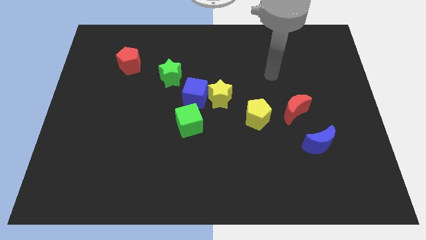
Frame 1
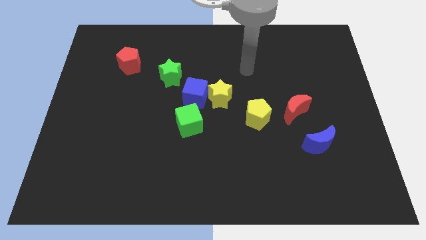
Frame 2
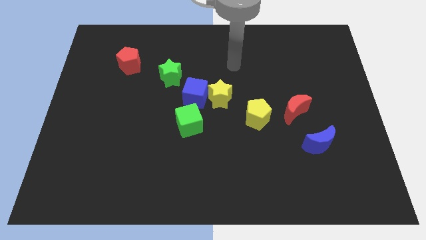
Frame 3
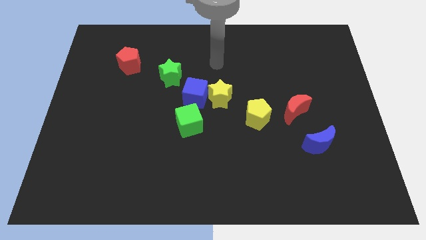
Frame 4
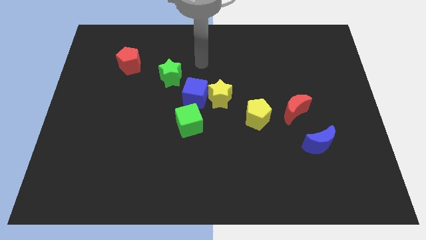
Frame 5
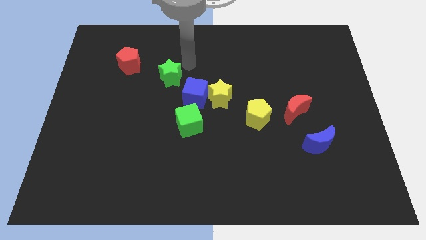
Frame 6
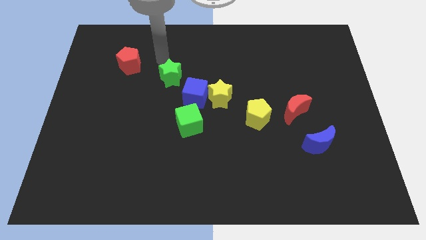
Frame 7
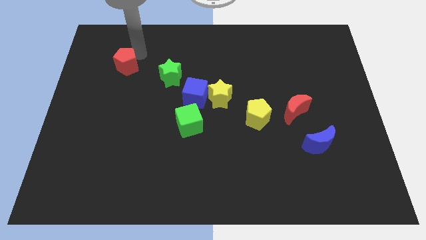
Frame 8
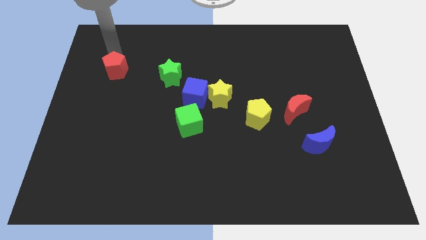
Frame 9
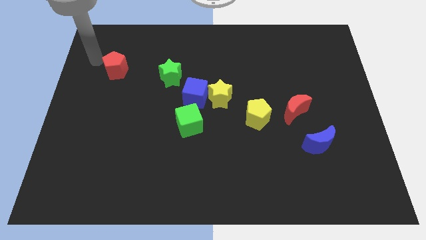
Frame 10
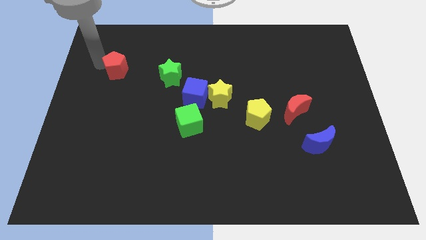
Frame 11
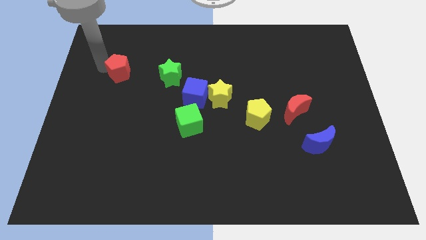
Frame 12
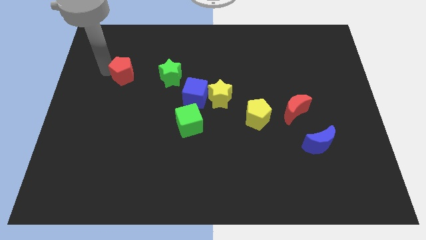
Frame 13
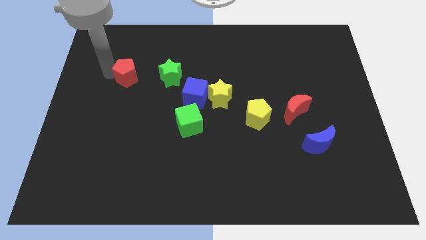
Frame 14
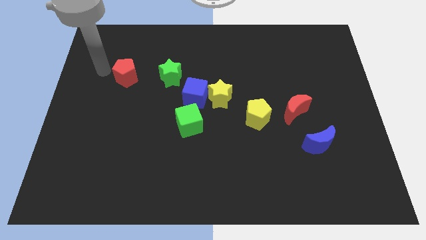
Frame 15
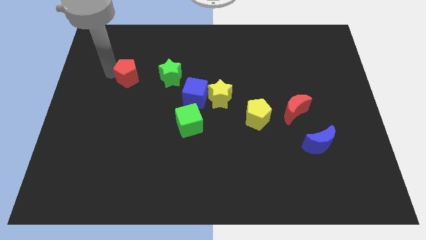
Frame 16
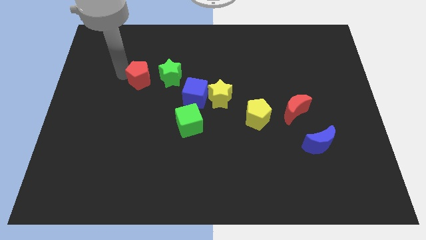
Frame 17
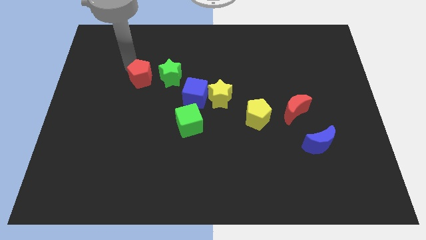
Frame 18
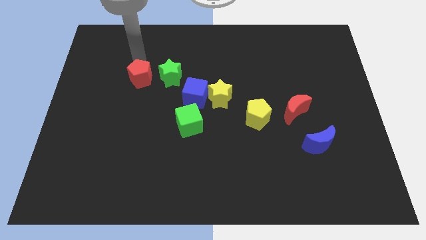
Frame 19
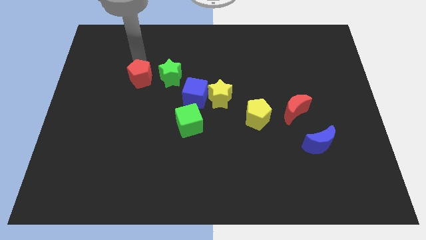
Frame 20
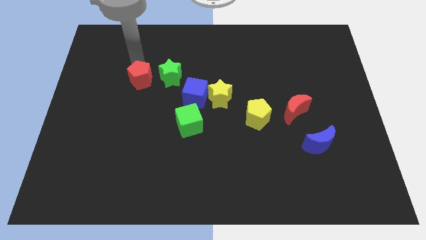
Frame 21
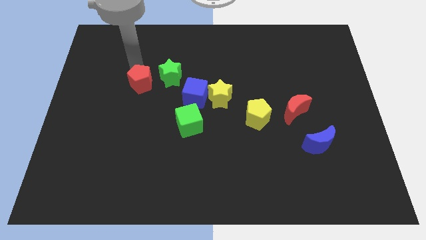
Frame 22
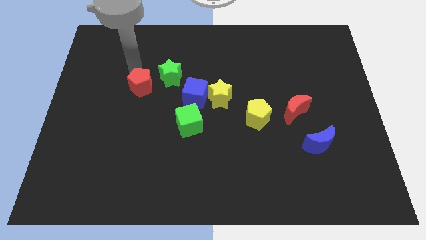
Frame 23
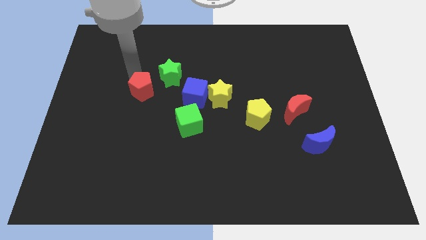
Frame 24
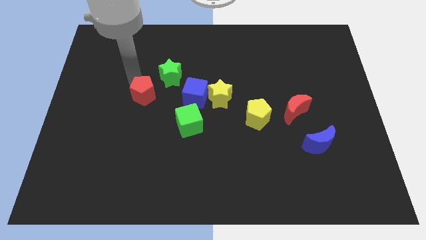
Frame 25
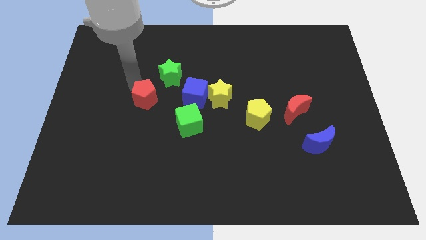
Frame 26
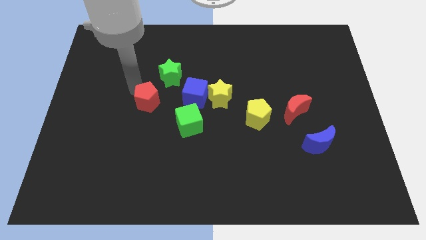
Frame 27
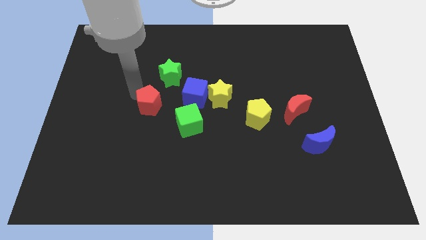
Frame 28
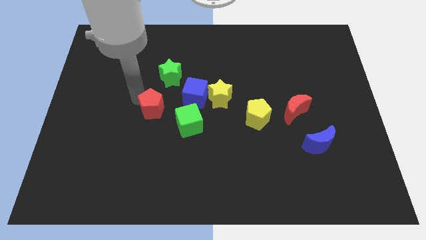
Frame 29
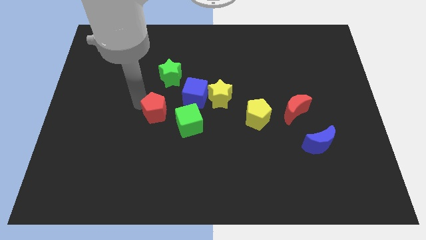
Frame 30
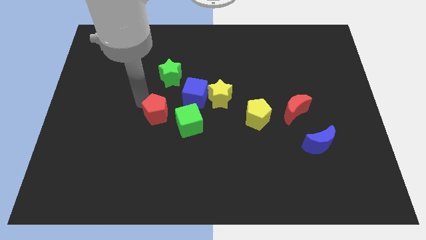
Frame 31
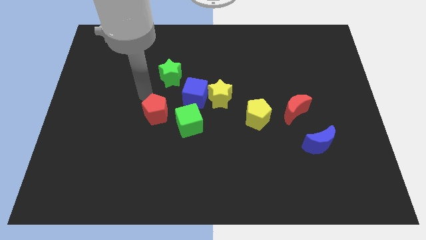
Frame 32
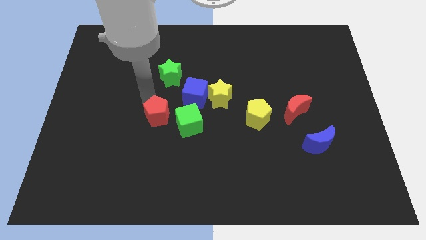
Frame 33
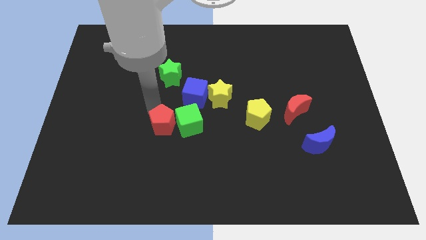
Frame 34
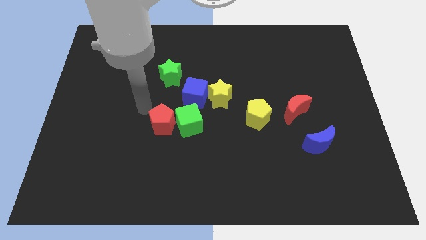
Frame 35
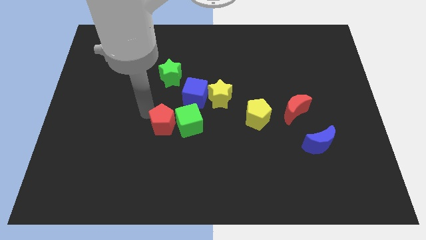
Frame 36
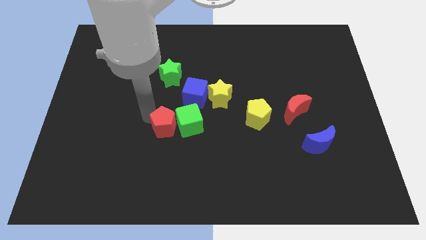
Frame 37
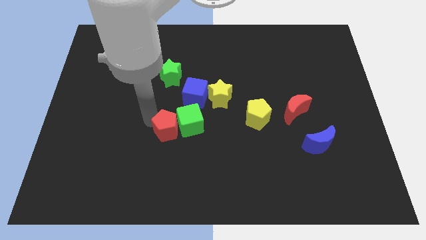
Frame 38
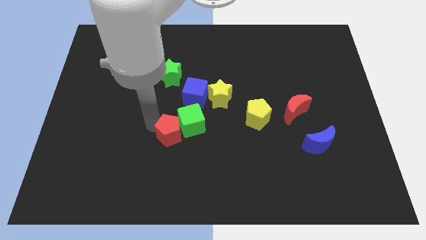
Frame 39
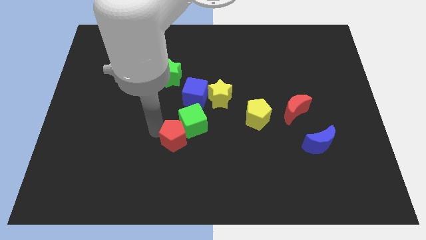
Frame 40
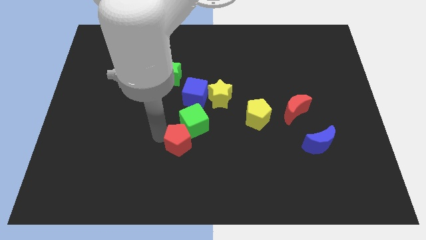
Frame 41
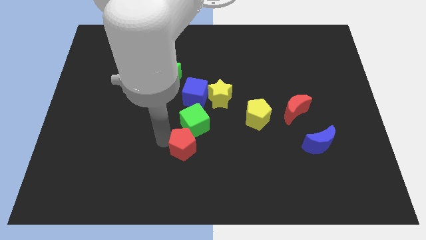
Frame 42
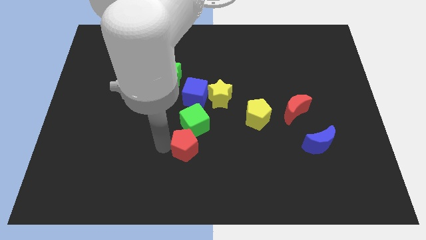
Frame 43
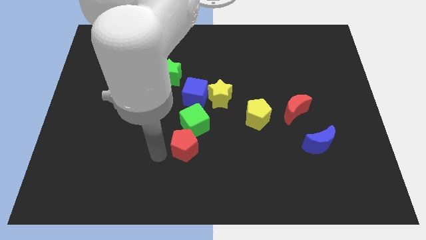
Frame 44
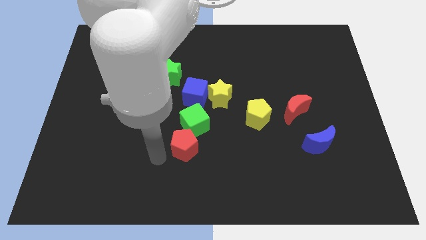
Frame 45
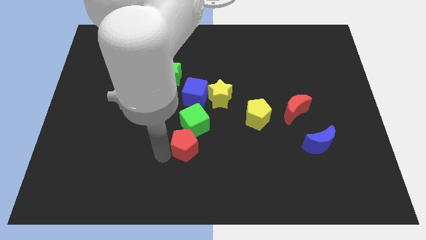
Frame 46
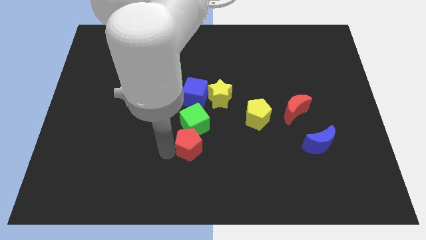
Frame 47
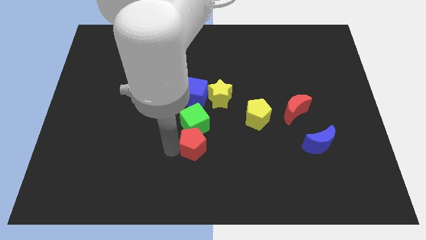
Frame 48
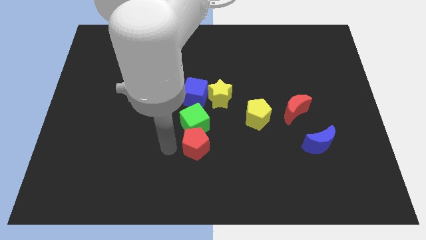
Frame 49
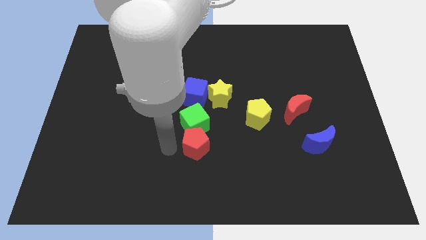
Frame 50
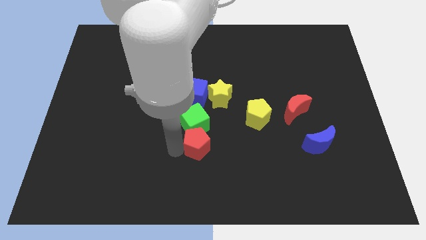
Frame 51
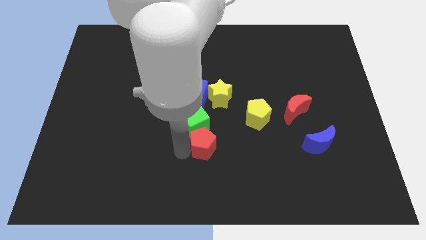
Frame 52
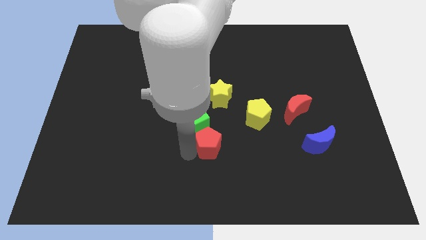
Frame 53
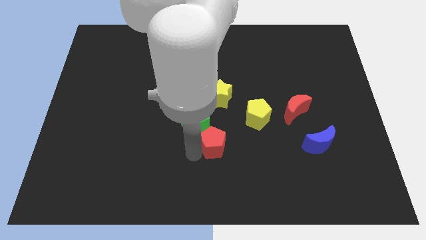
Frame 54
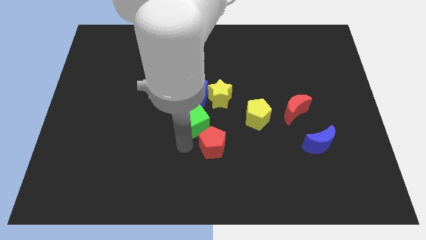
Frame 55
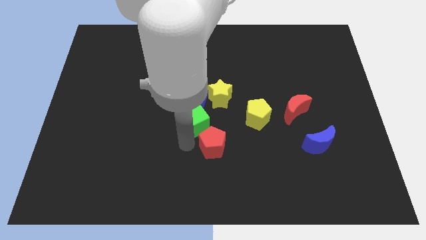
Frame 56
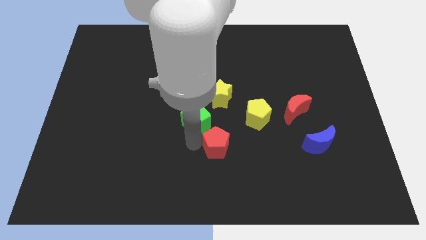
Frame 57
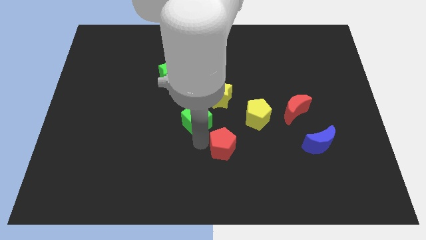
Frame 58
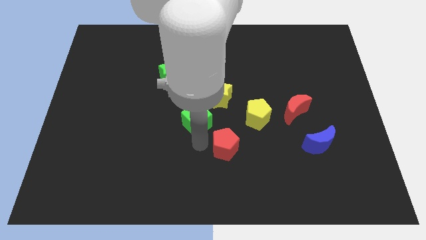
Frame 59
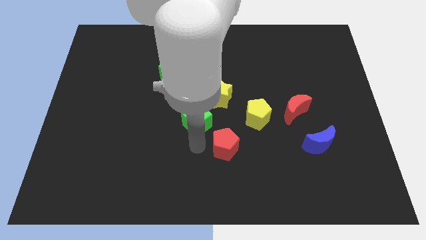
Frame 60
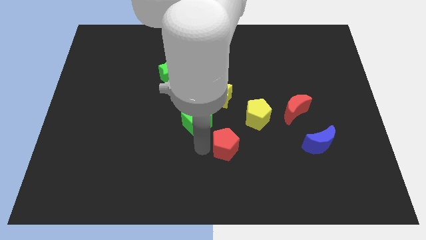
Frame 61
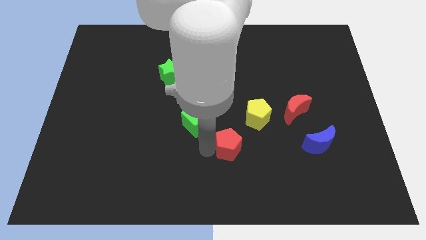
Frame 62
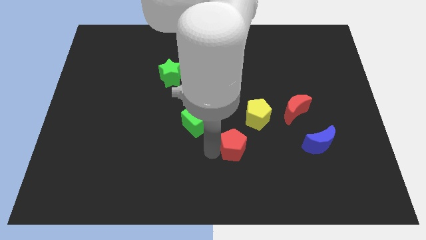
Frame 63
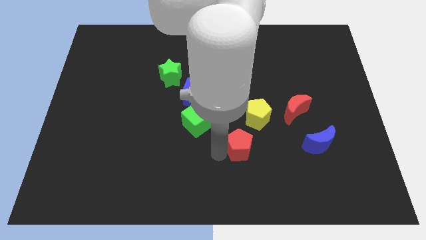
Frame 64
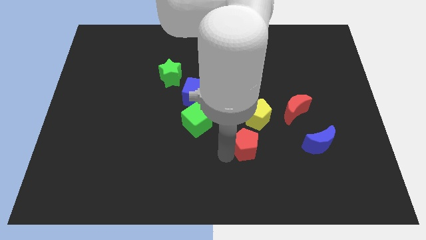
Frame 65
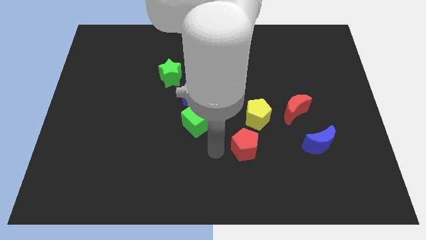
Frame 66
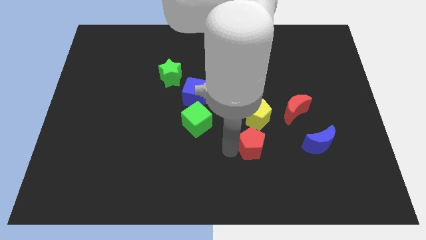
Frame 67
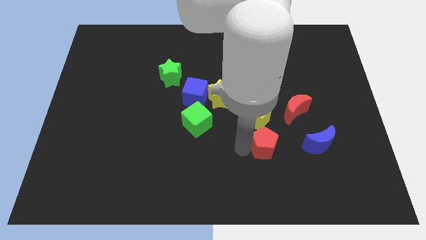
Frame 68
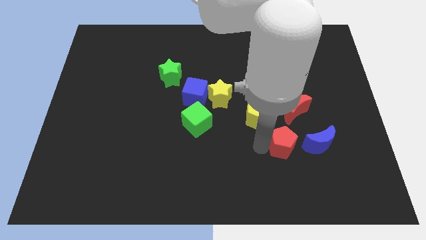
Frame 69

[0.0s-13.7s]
put the red pentagon below the red moon

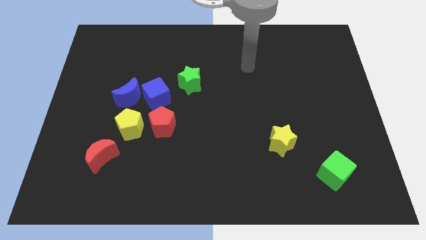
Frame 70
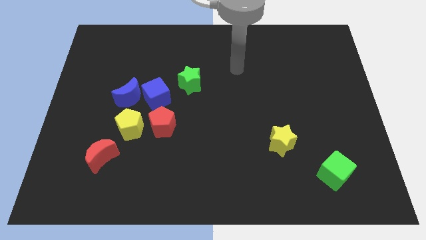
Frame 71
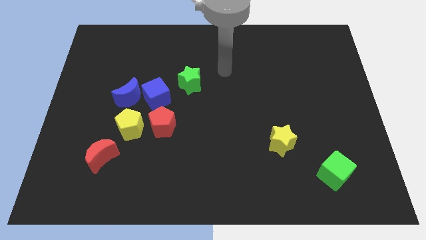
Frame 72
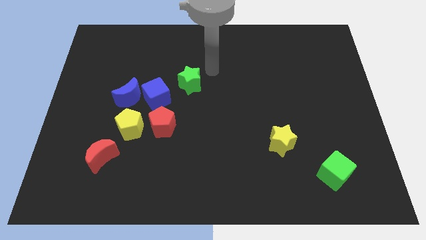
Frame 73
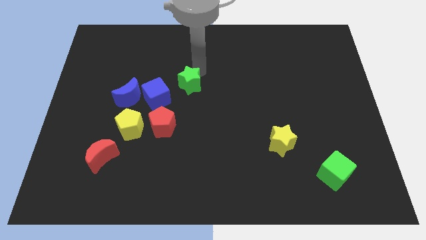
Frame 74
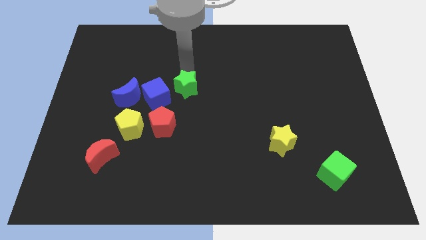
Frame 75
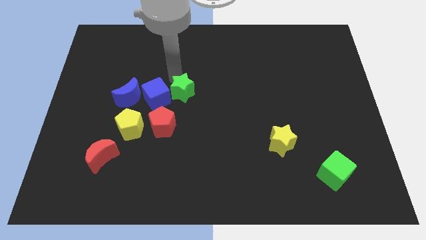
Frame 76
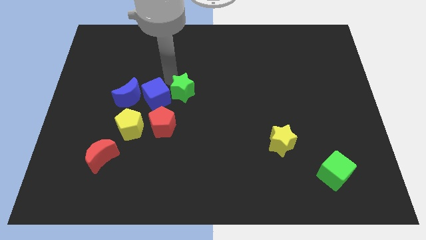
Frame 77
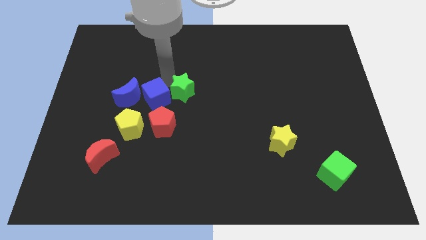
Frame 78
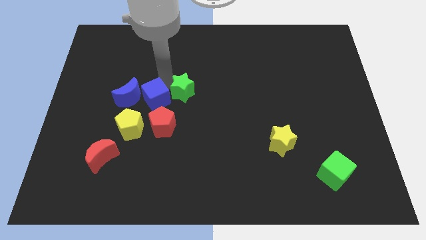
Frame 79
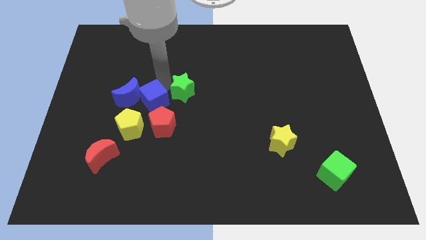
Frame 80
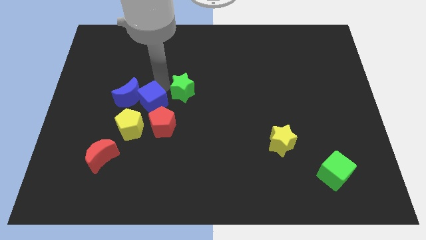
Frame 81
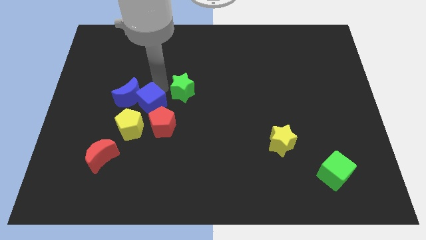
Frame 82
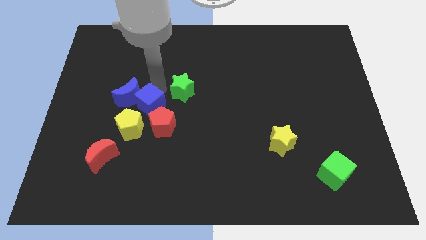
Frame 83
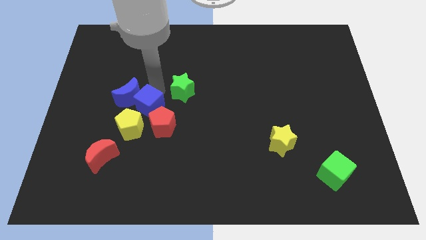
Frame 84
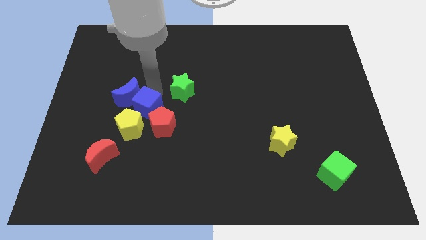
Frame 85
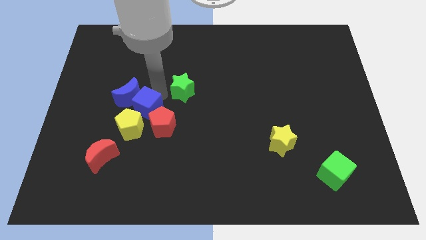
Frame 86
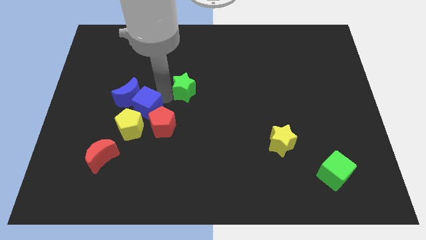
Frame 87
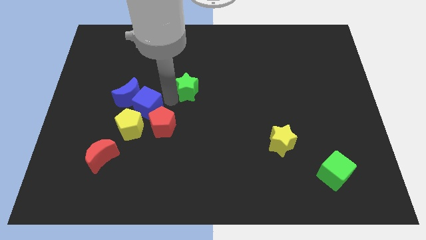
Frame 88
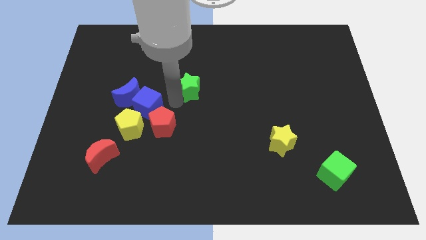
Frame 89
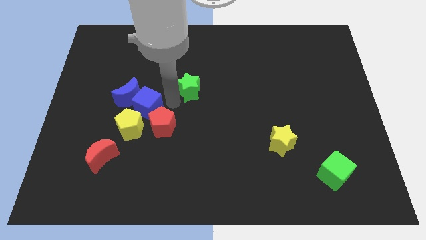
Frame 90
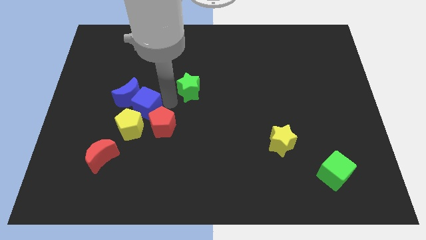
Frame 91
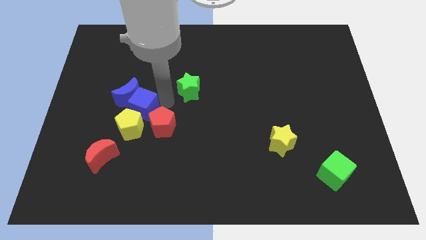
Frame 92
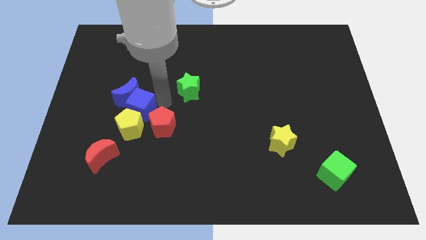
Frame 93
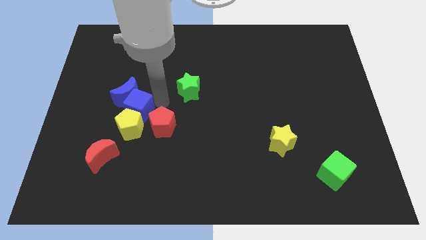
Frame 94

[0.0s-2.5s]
slide the blue cube left of the red pentagon
